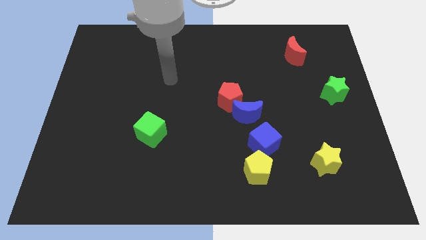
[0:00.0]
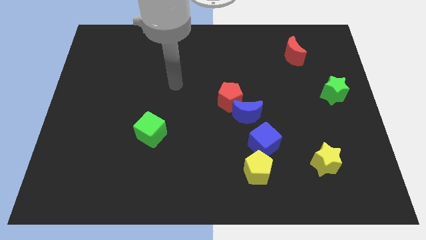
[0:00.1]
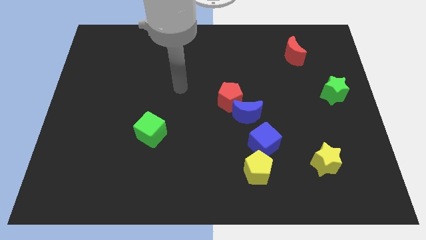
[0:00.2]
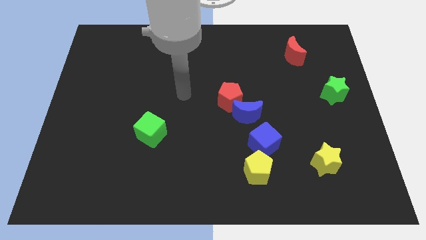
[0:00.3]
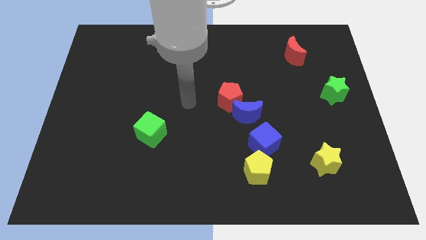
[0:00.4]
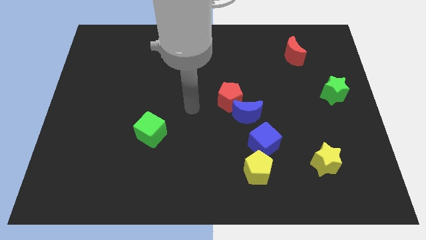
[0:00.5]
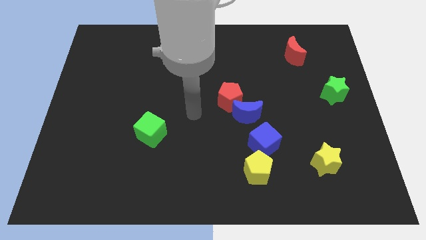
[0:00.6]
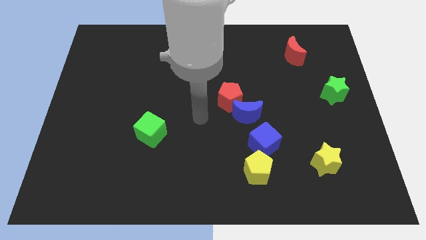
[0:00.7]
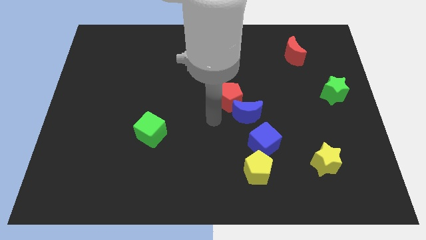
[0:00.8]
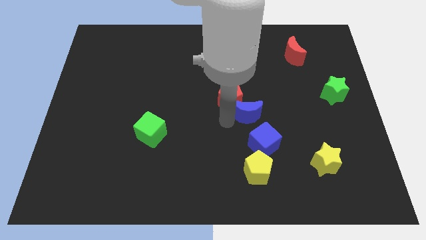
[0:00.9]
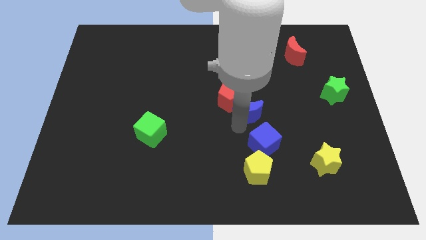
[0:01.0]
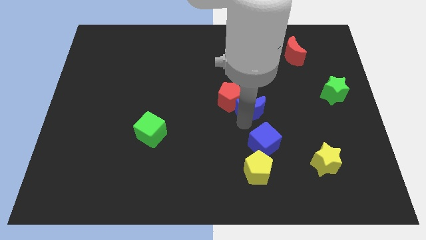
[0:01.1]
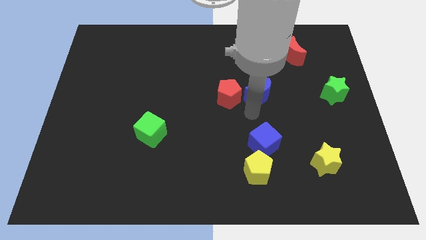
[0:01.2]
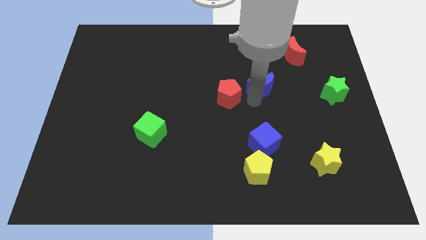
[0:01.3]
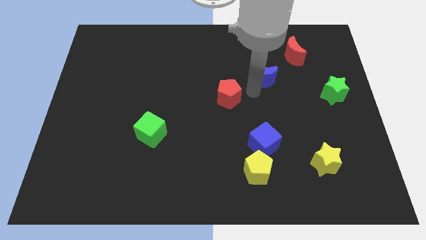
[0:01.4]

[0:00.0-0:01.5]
separate the red pentagon from the blue moon

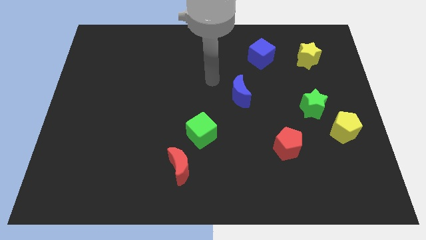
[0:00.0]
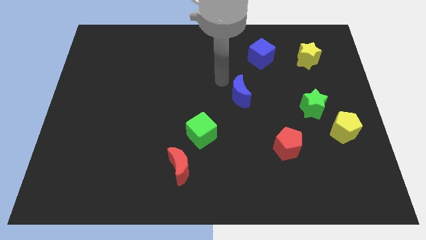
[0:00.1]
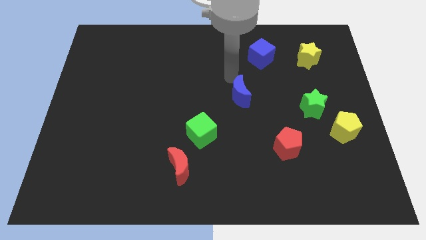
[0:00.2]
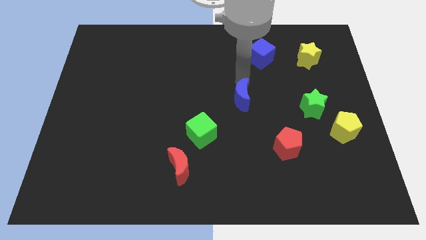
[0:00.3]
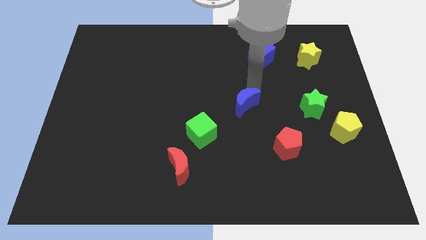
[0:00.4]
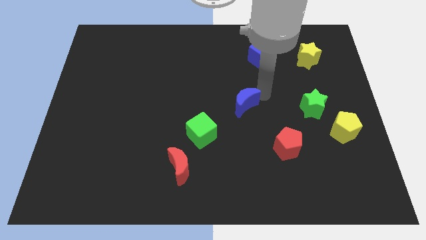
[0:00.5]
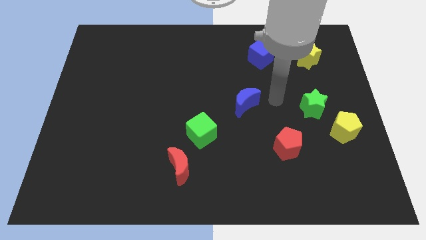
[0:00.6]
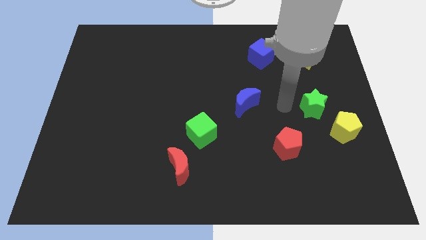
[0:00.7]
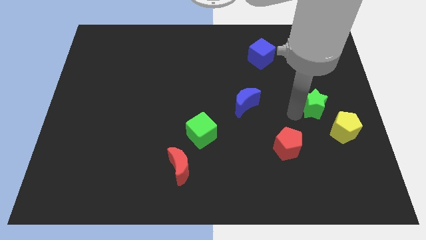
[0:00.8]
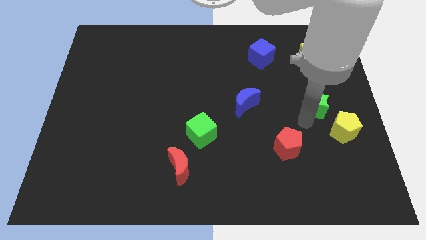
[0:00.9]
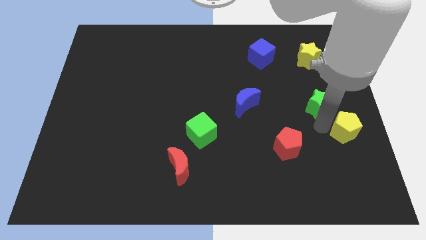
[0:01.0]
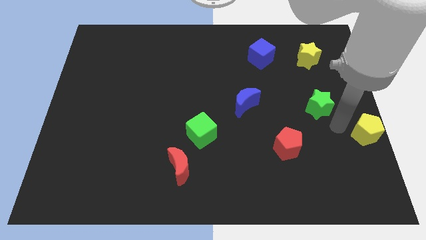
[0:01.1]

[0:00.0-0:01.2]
move the green star away from the yellow pentagon

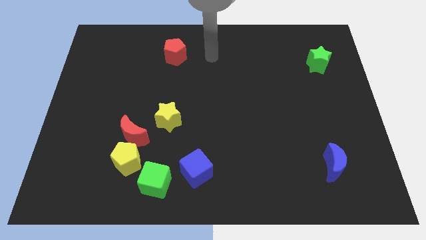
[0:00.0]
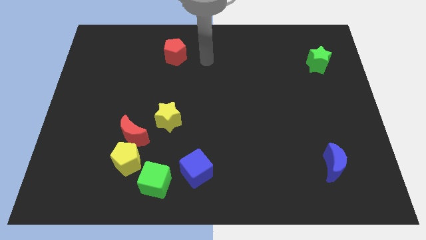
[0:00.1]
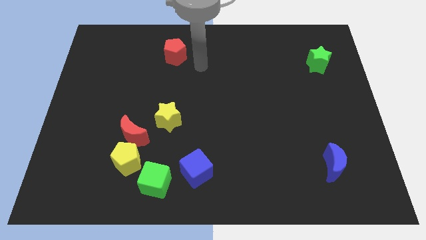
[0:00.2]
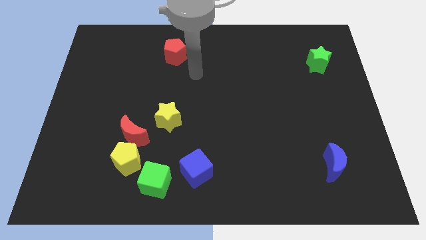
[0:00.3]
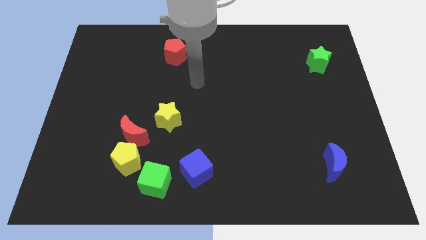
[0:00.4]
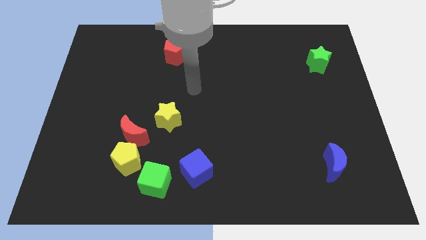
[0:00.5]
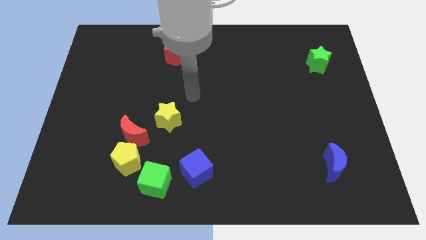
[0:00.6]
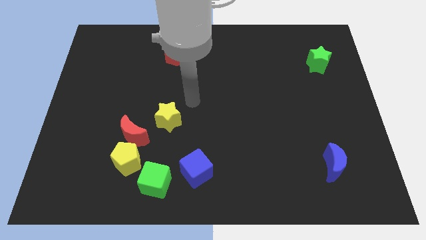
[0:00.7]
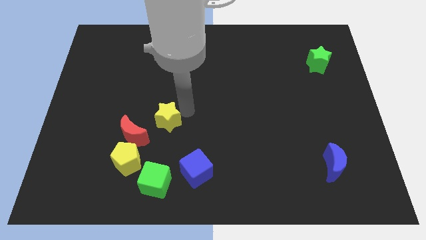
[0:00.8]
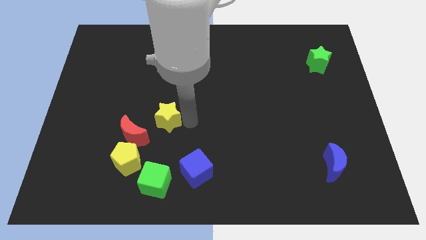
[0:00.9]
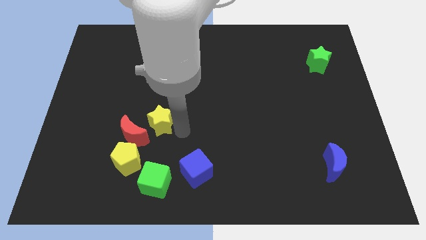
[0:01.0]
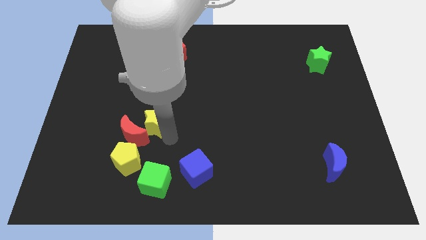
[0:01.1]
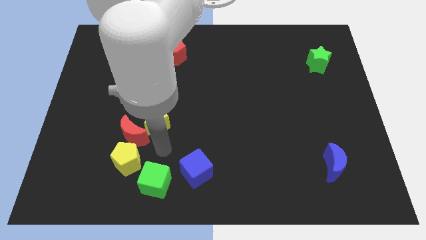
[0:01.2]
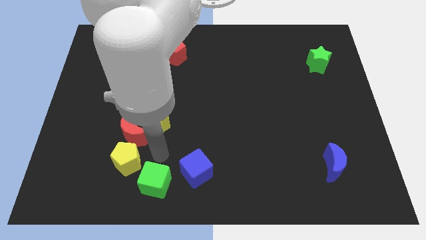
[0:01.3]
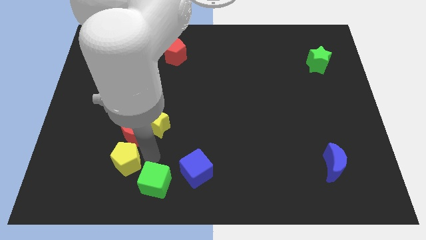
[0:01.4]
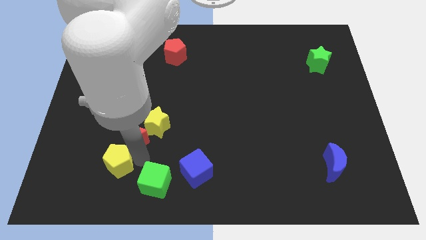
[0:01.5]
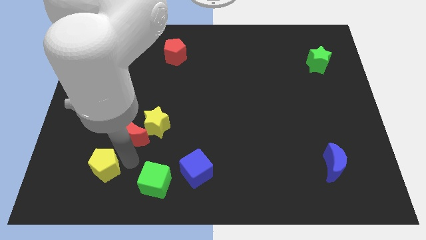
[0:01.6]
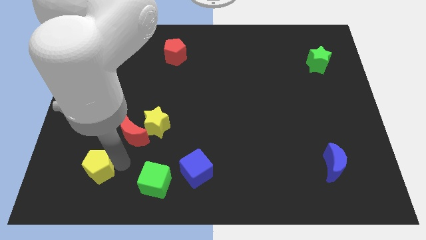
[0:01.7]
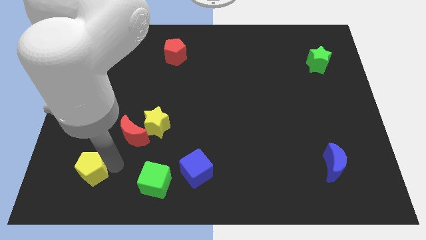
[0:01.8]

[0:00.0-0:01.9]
move the yellow pentagon away from the red moon and green cube

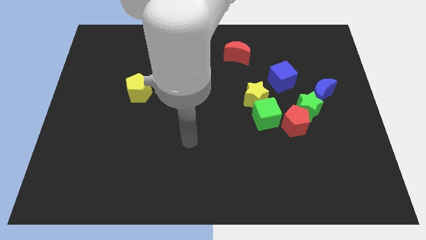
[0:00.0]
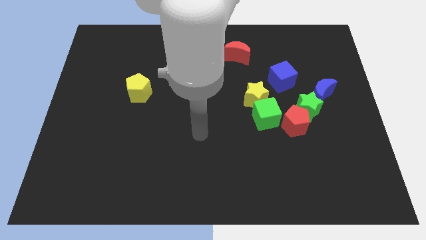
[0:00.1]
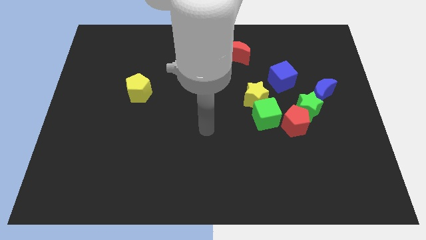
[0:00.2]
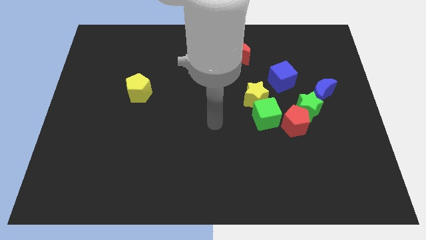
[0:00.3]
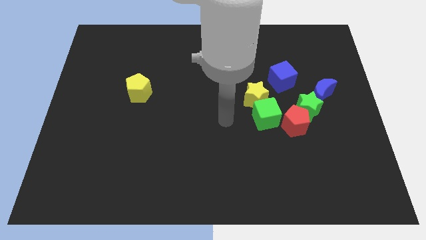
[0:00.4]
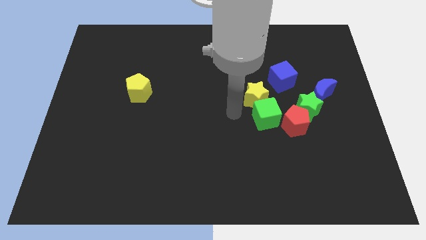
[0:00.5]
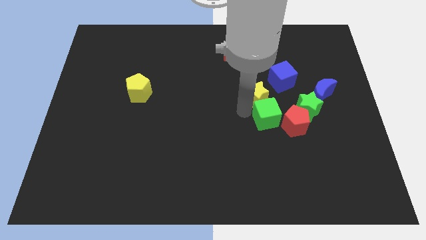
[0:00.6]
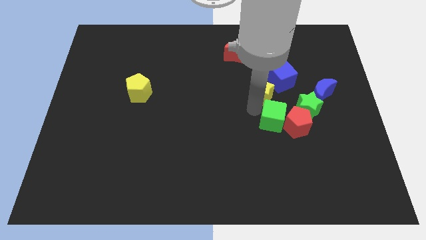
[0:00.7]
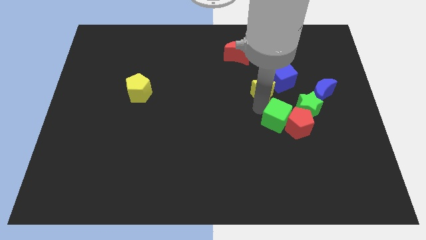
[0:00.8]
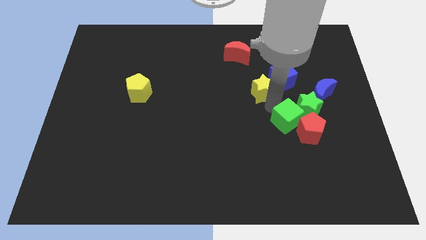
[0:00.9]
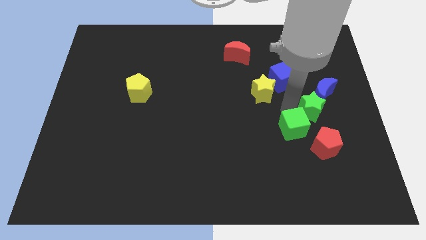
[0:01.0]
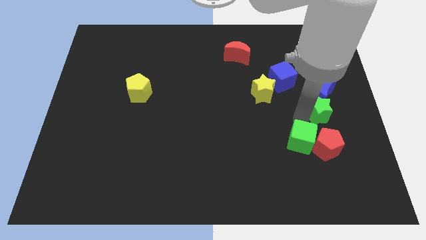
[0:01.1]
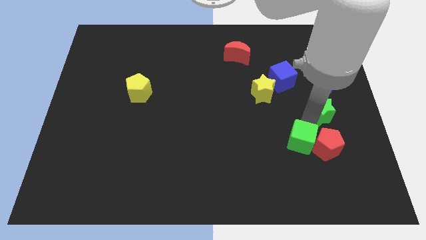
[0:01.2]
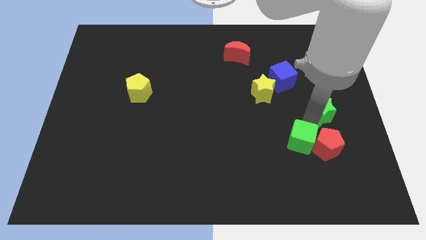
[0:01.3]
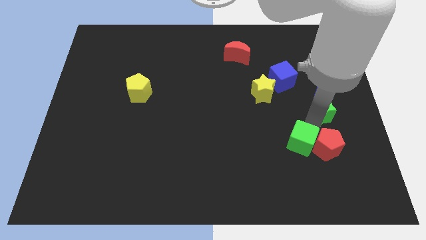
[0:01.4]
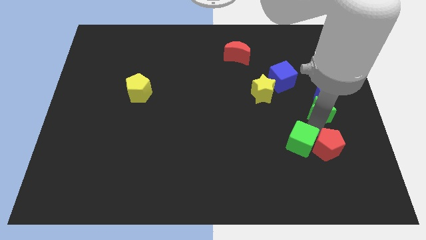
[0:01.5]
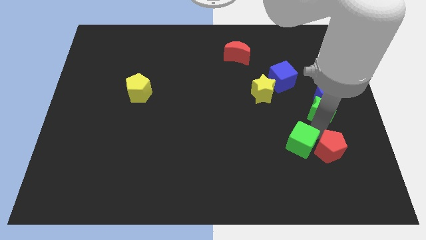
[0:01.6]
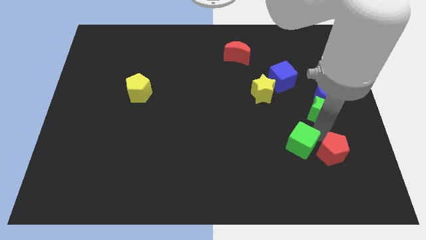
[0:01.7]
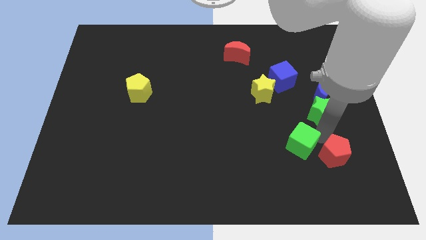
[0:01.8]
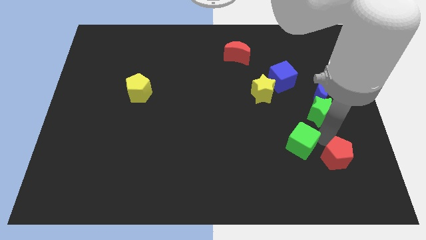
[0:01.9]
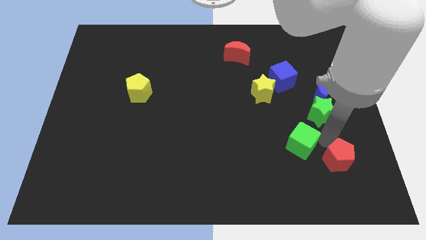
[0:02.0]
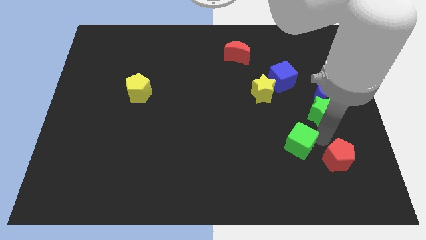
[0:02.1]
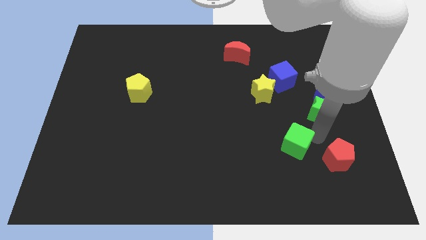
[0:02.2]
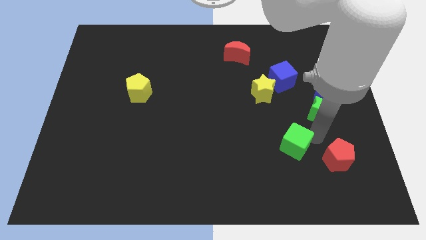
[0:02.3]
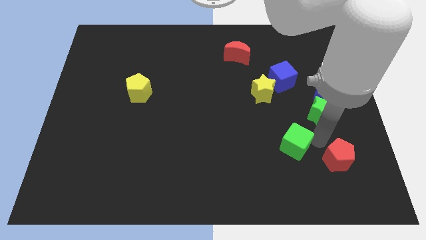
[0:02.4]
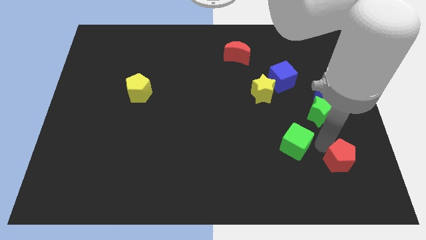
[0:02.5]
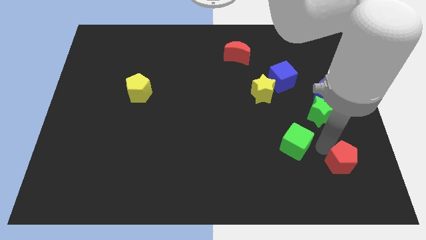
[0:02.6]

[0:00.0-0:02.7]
move the red pentagon away from the green star and green cube

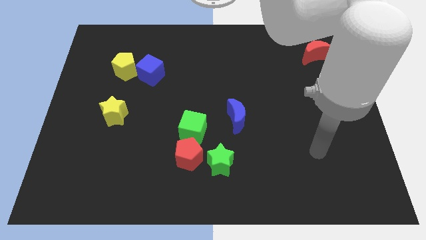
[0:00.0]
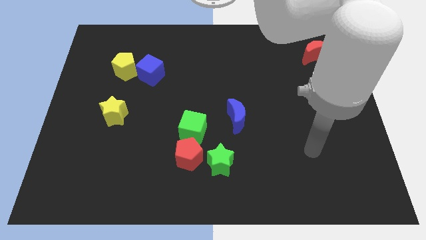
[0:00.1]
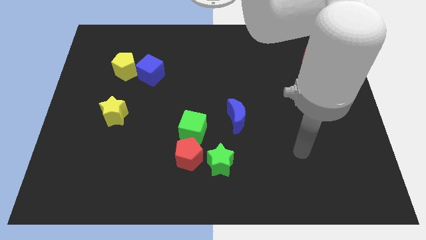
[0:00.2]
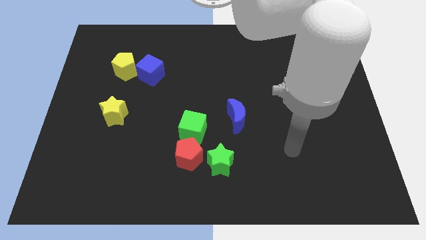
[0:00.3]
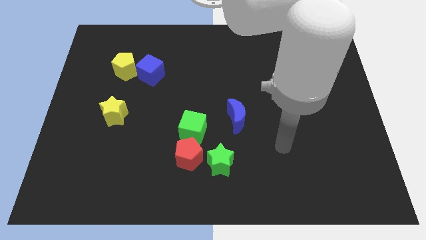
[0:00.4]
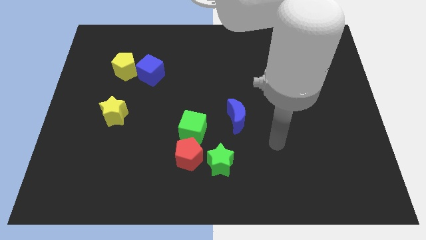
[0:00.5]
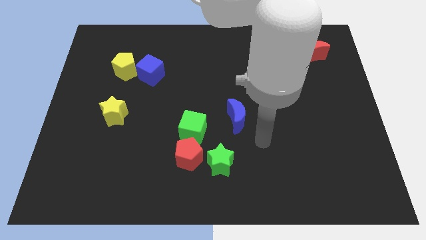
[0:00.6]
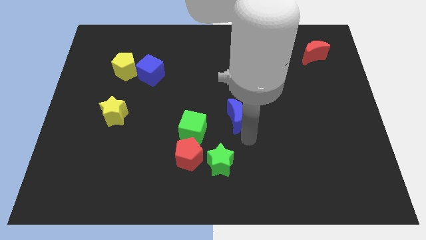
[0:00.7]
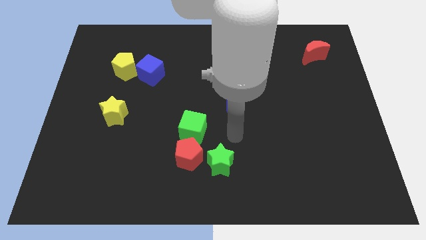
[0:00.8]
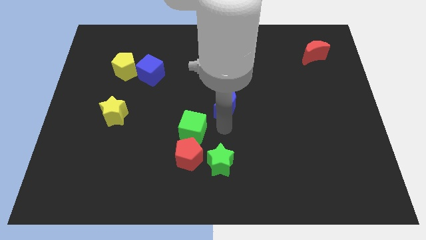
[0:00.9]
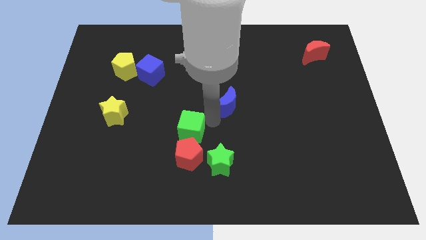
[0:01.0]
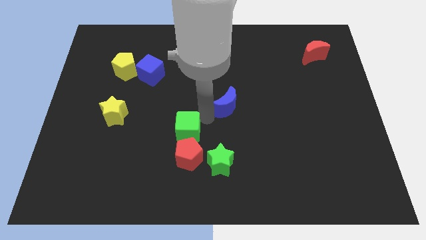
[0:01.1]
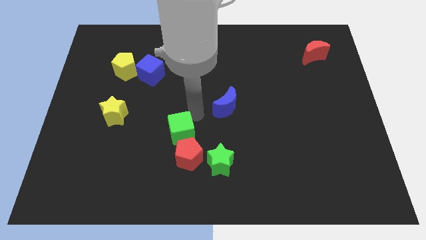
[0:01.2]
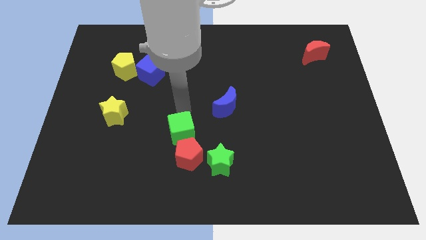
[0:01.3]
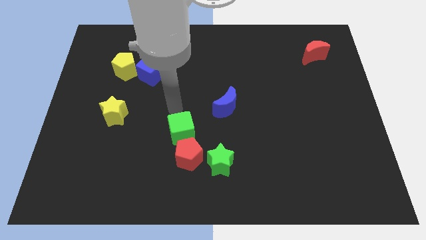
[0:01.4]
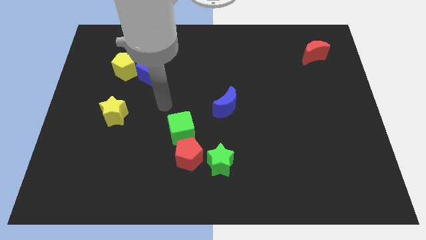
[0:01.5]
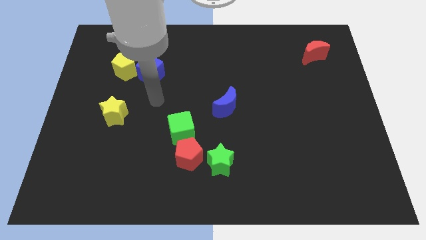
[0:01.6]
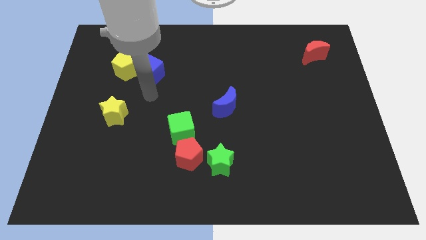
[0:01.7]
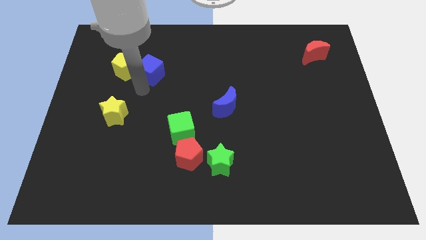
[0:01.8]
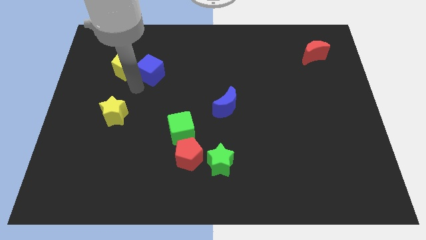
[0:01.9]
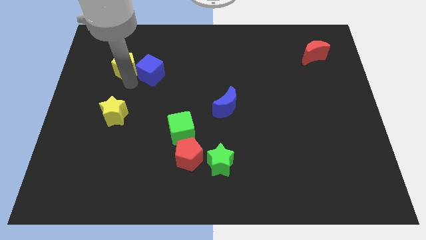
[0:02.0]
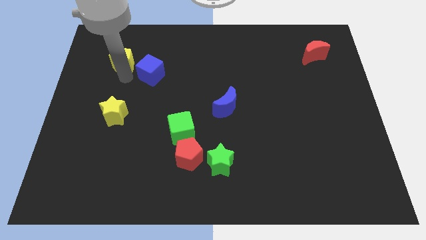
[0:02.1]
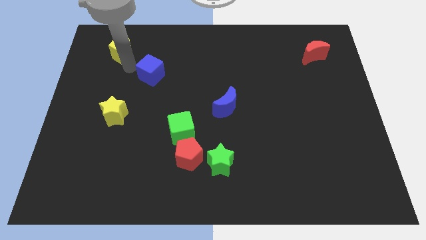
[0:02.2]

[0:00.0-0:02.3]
pull the blue cube apart from the yellow pentagon
